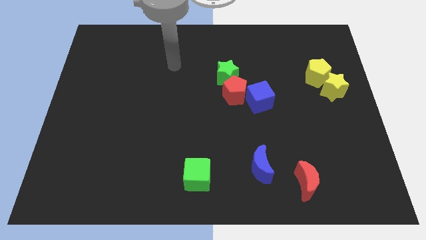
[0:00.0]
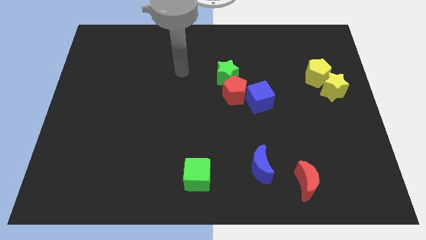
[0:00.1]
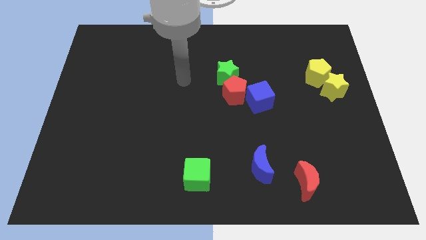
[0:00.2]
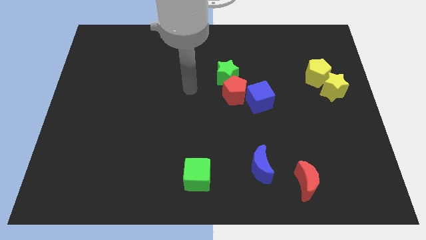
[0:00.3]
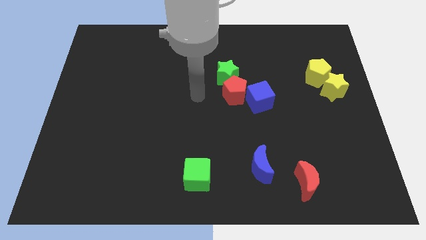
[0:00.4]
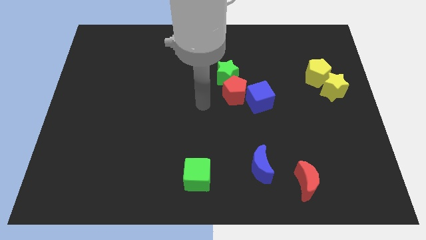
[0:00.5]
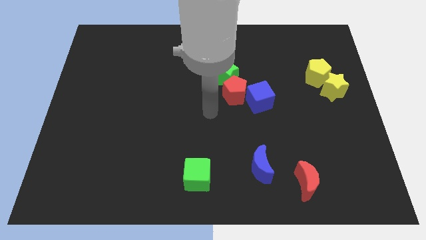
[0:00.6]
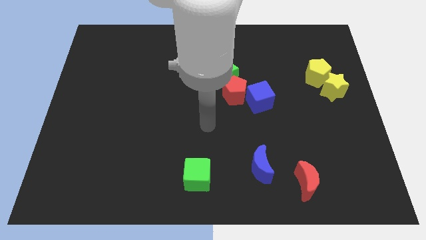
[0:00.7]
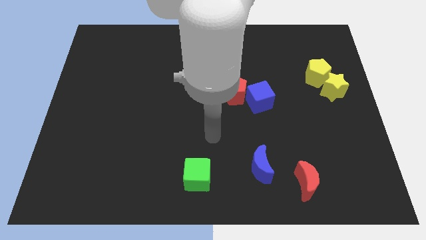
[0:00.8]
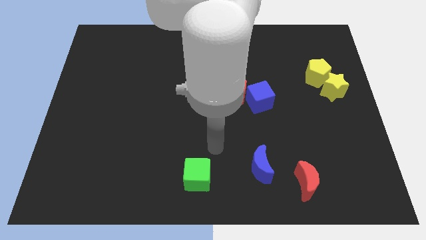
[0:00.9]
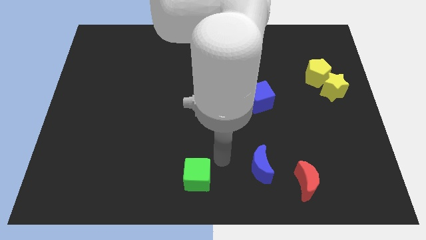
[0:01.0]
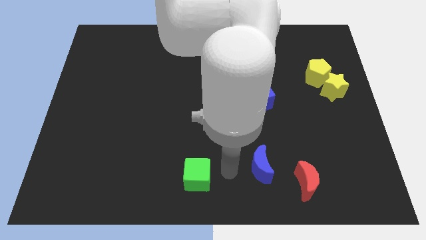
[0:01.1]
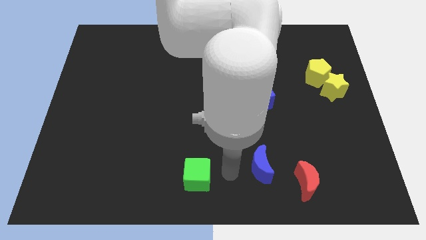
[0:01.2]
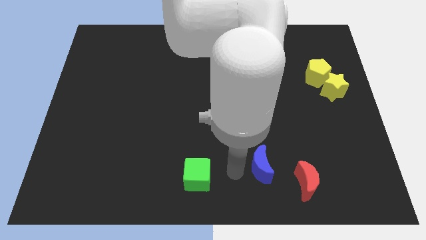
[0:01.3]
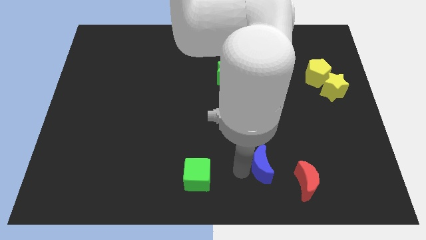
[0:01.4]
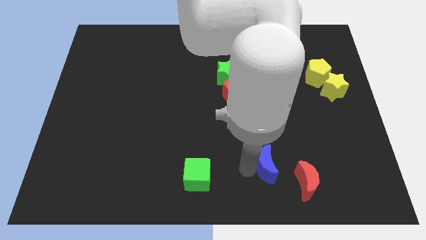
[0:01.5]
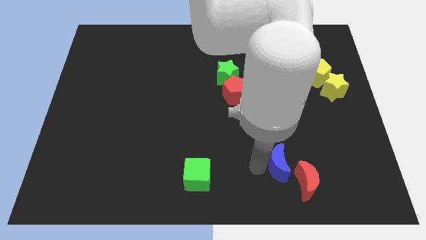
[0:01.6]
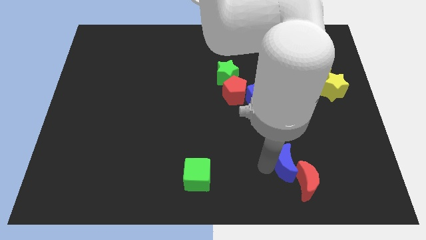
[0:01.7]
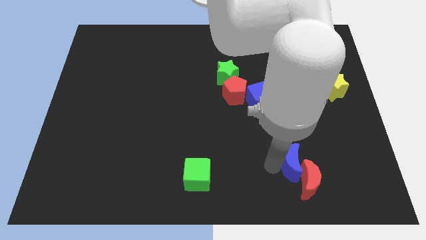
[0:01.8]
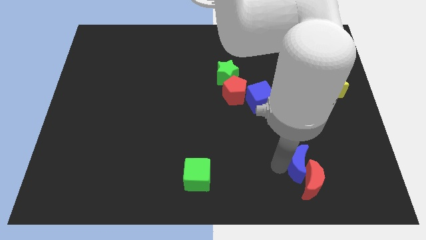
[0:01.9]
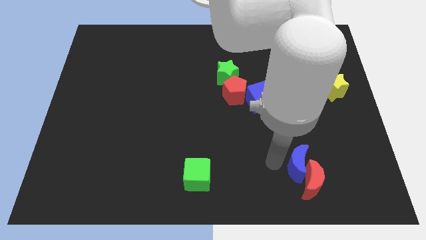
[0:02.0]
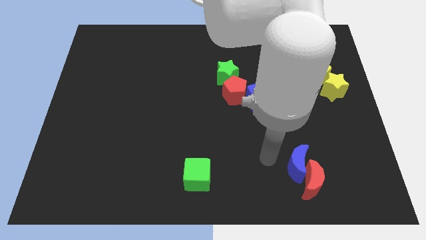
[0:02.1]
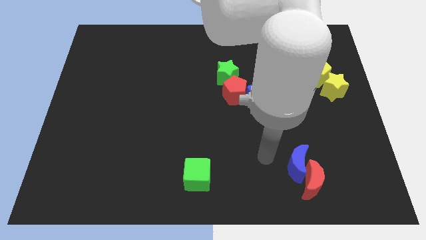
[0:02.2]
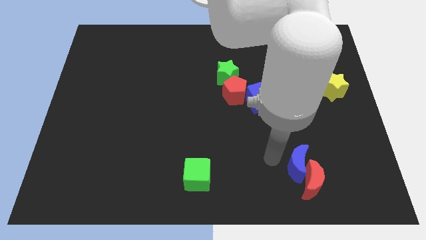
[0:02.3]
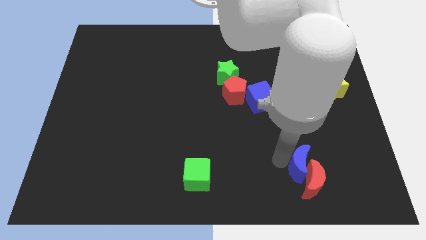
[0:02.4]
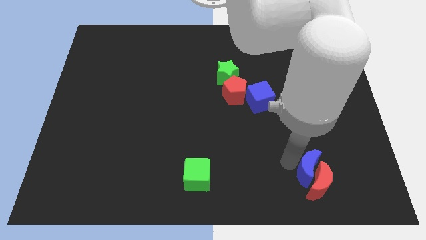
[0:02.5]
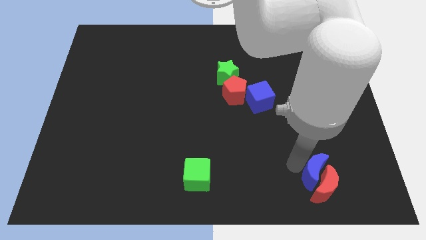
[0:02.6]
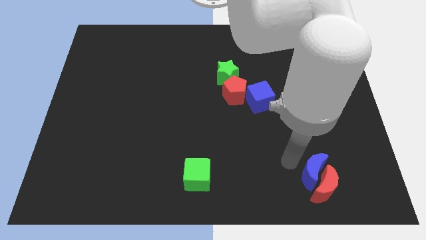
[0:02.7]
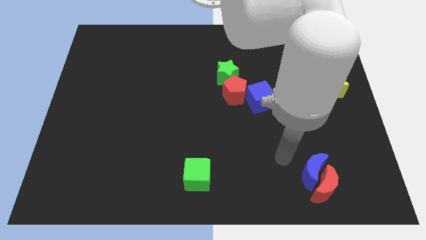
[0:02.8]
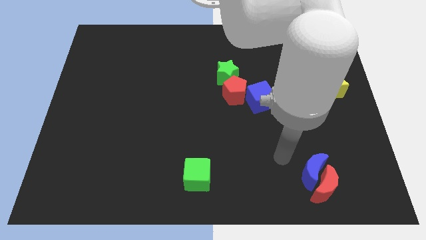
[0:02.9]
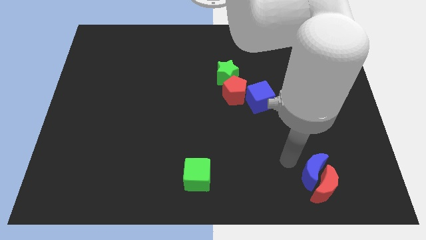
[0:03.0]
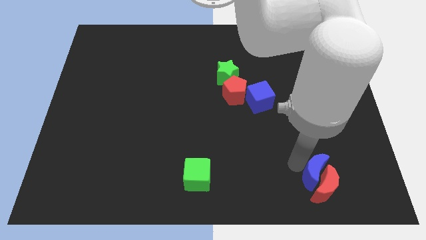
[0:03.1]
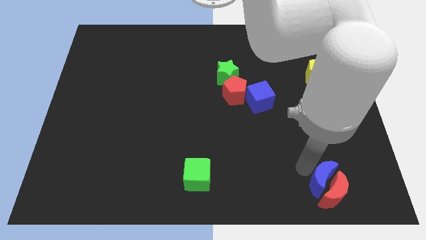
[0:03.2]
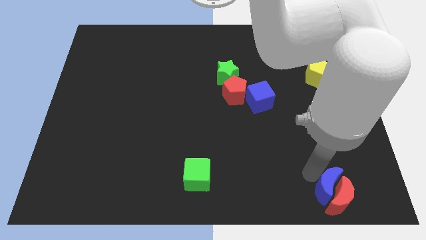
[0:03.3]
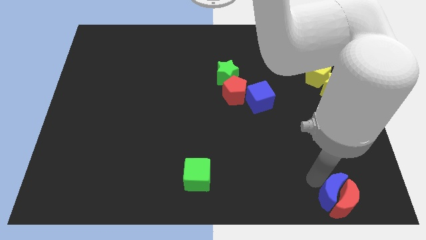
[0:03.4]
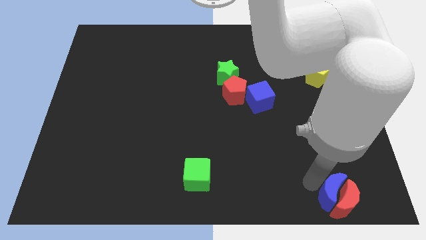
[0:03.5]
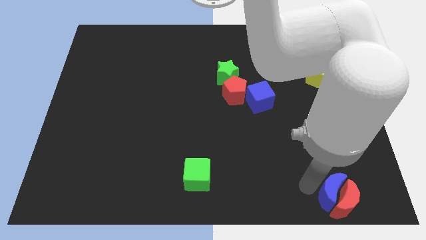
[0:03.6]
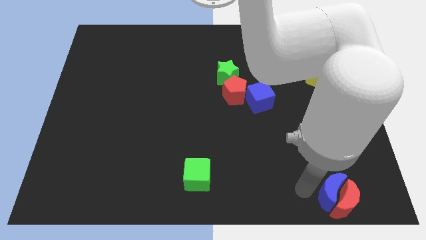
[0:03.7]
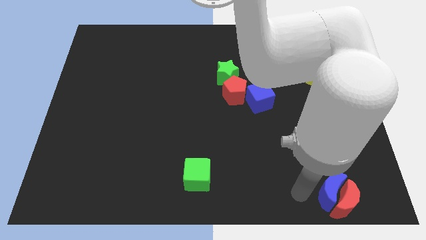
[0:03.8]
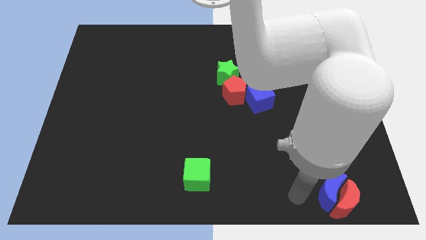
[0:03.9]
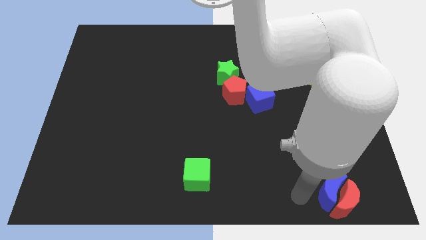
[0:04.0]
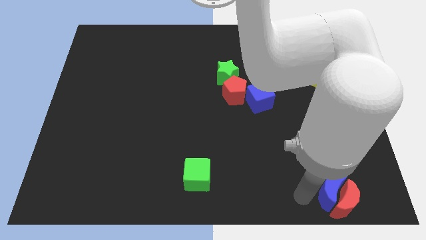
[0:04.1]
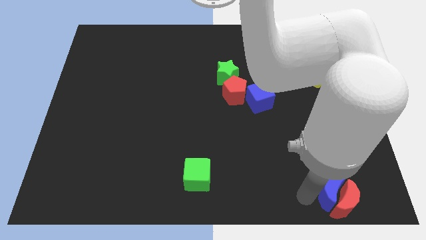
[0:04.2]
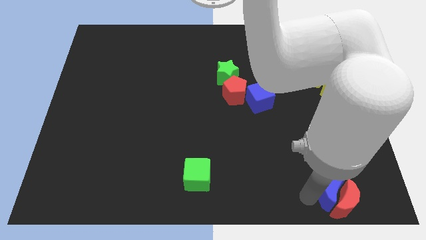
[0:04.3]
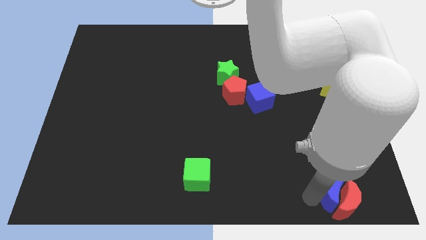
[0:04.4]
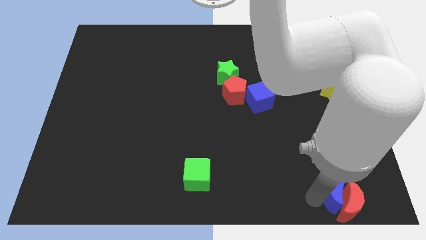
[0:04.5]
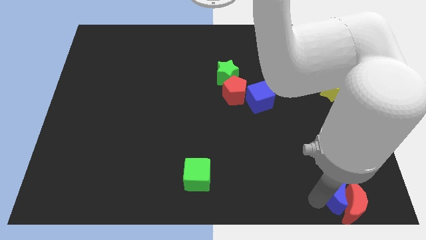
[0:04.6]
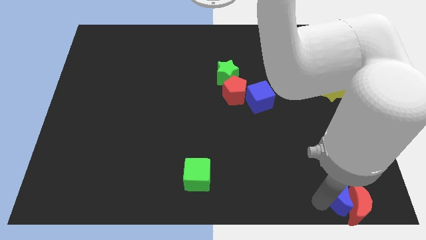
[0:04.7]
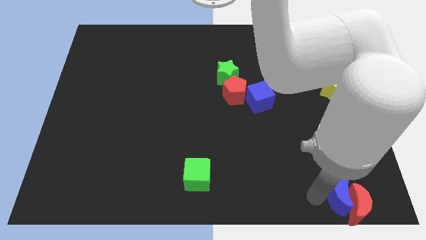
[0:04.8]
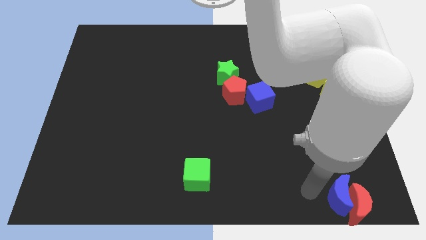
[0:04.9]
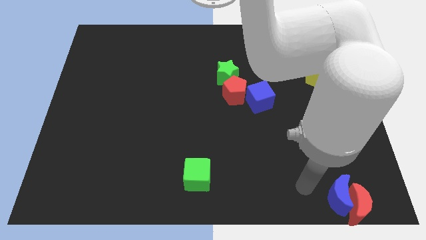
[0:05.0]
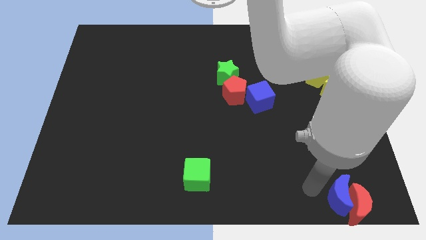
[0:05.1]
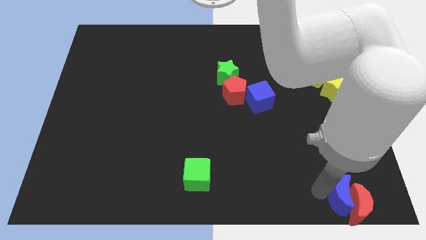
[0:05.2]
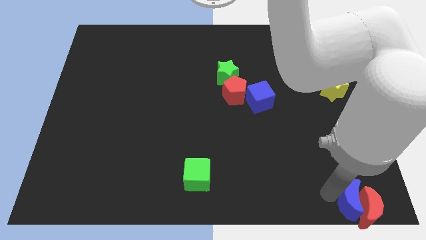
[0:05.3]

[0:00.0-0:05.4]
push the blue moon to the lower right corner

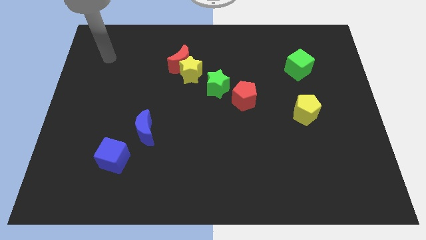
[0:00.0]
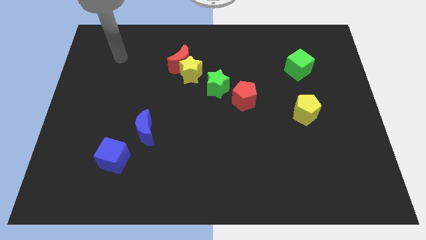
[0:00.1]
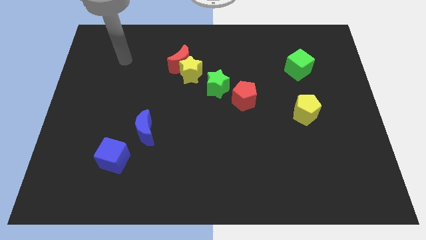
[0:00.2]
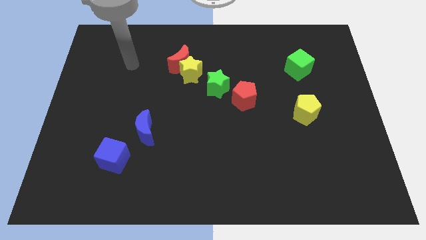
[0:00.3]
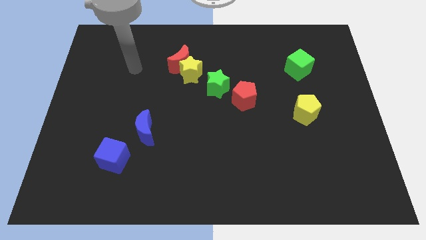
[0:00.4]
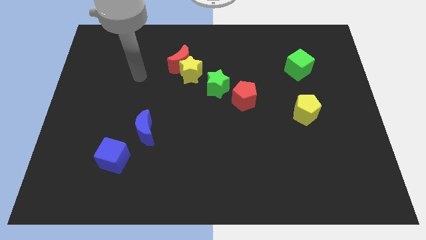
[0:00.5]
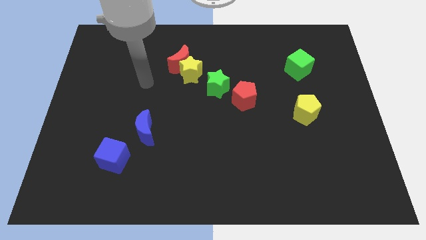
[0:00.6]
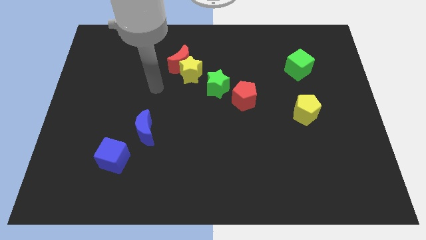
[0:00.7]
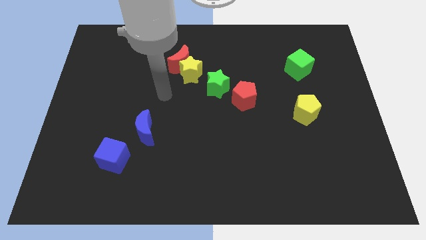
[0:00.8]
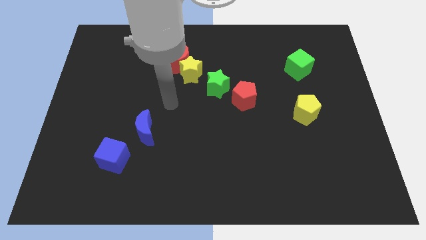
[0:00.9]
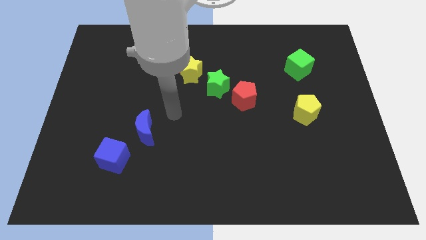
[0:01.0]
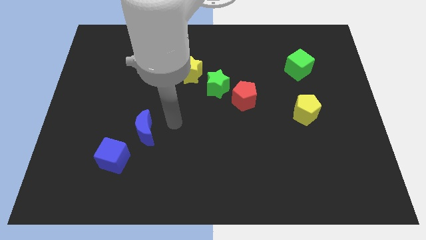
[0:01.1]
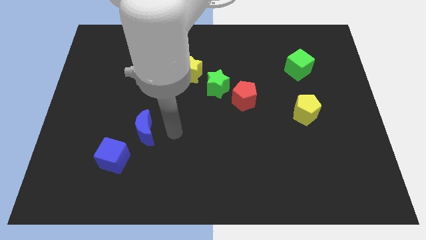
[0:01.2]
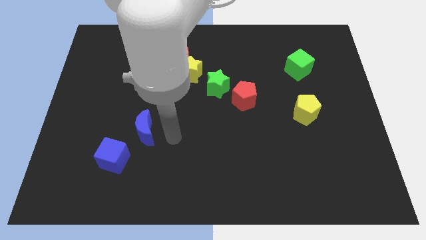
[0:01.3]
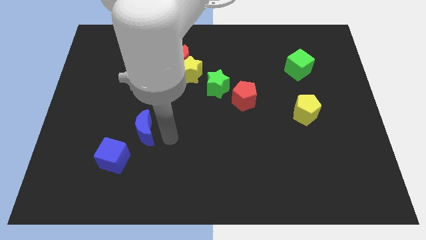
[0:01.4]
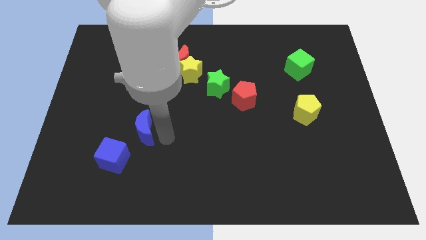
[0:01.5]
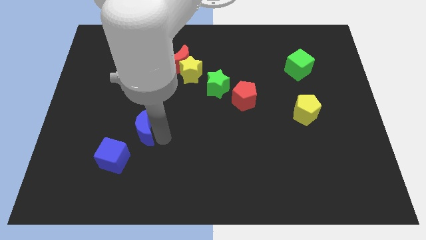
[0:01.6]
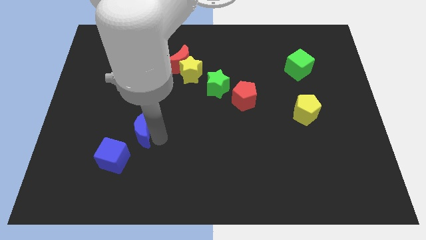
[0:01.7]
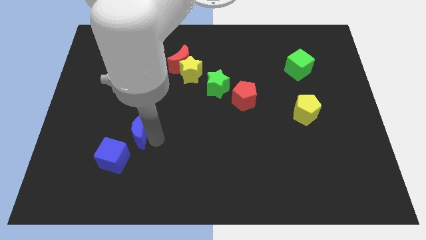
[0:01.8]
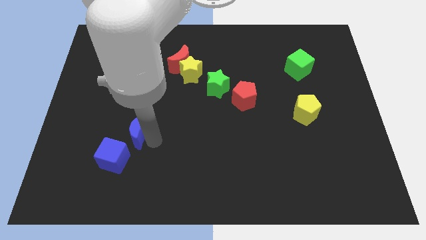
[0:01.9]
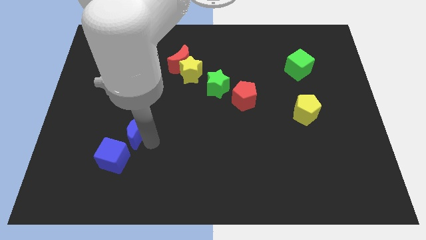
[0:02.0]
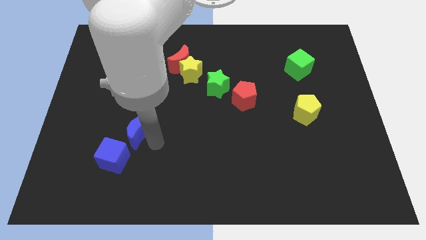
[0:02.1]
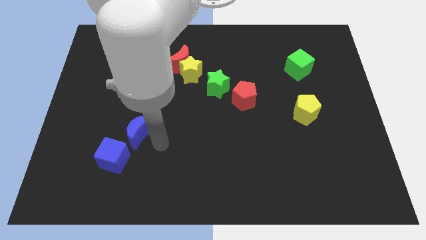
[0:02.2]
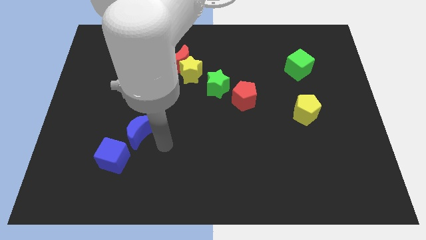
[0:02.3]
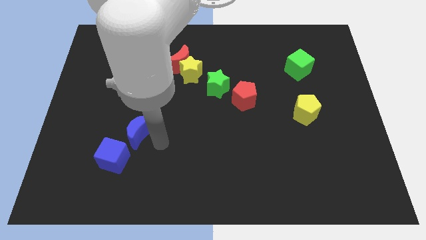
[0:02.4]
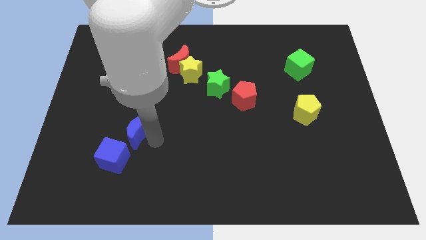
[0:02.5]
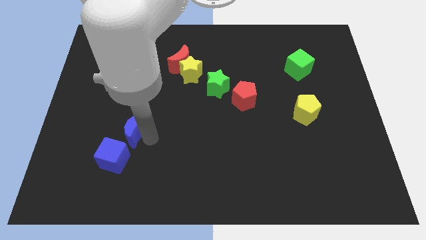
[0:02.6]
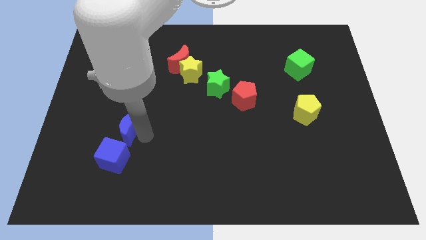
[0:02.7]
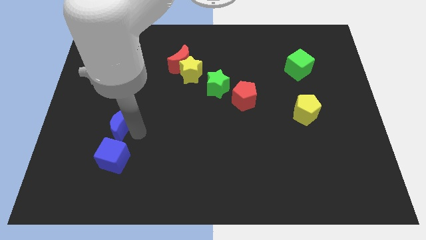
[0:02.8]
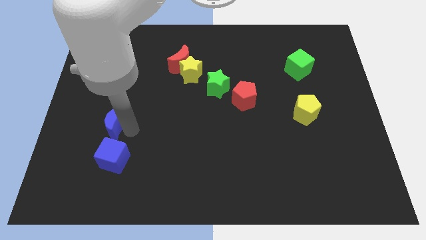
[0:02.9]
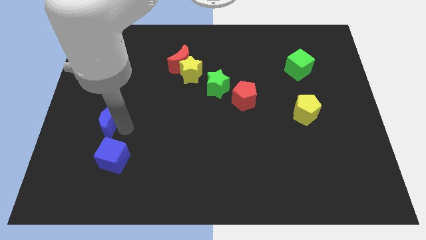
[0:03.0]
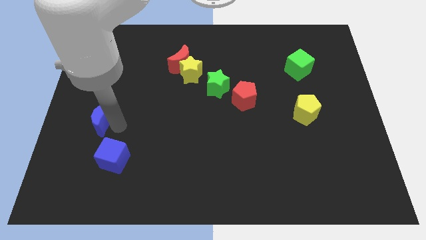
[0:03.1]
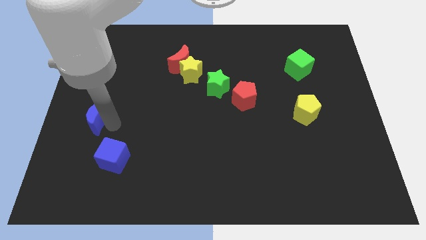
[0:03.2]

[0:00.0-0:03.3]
move the blue moon to the left side
